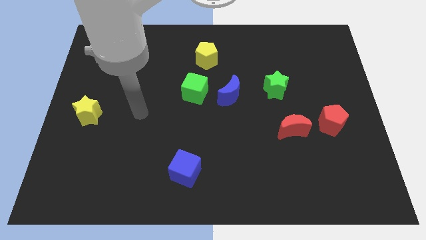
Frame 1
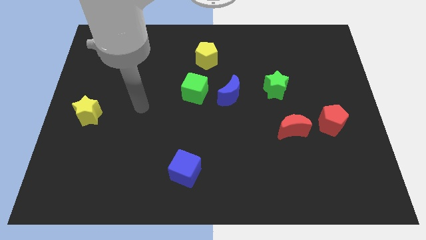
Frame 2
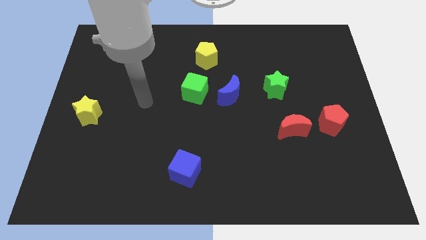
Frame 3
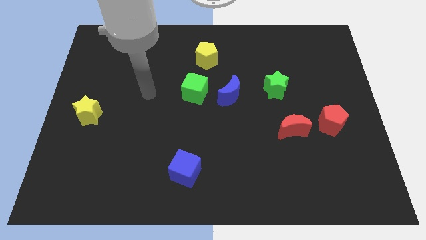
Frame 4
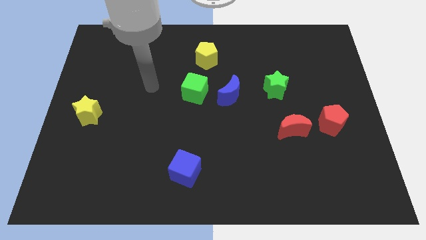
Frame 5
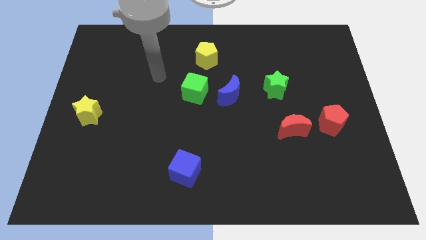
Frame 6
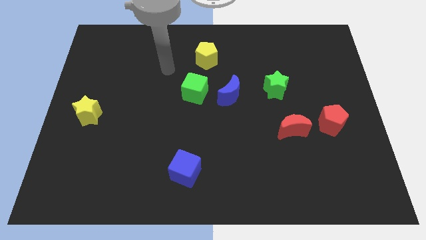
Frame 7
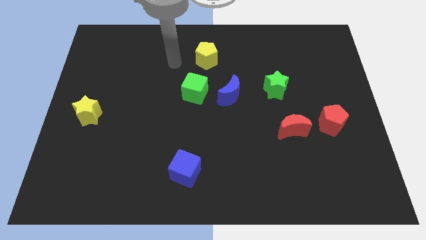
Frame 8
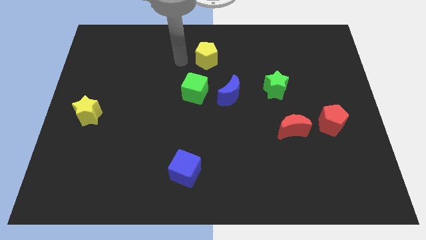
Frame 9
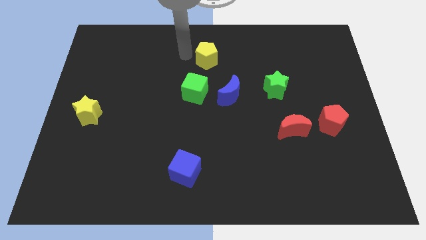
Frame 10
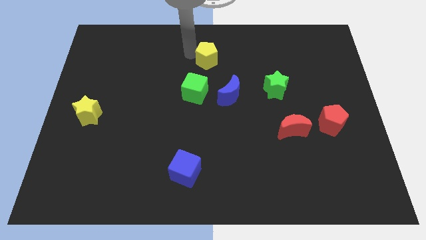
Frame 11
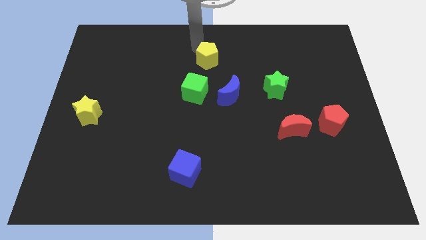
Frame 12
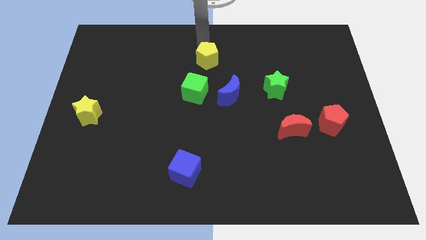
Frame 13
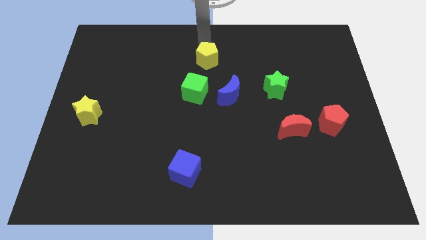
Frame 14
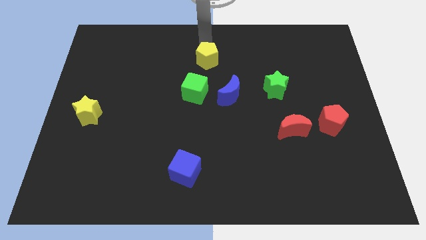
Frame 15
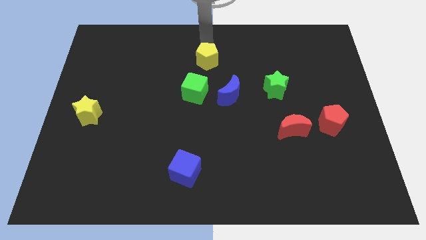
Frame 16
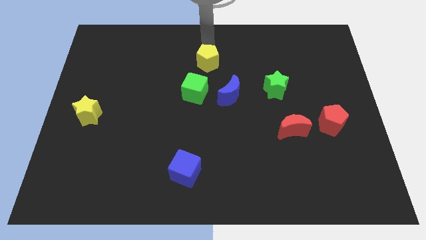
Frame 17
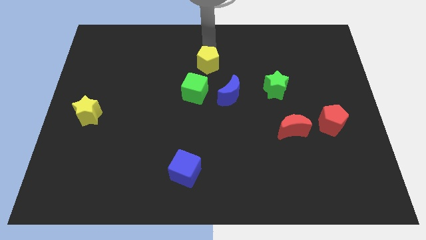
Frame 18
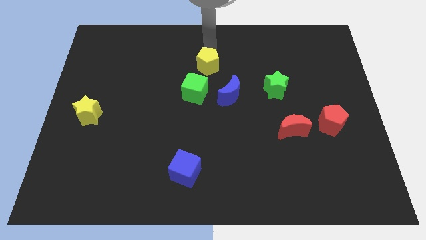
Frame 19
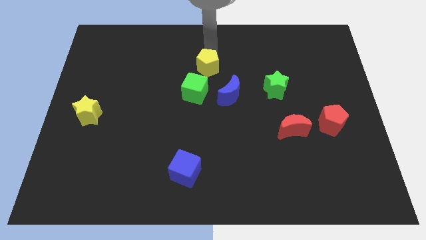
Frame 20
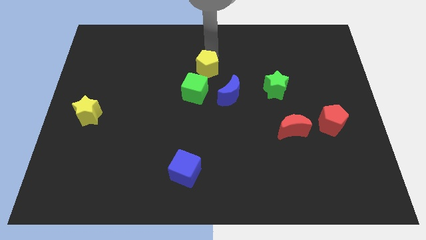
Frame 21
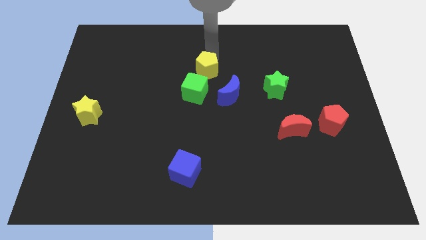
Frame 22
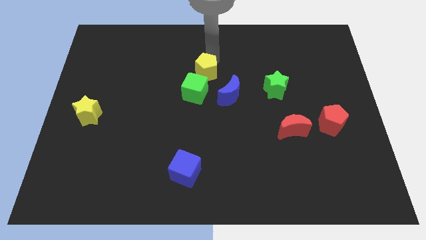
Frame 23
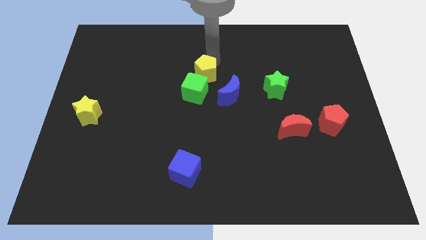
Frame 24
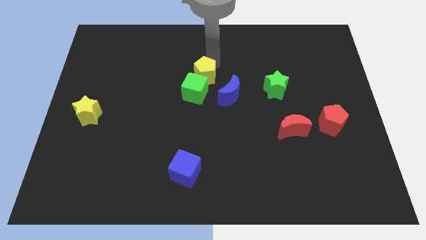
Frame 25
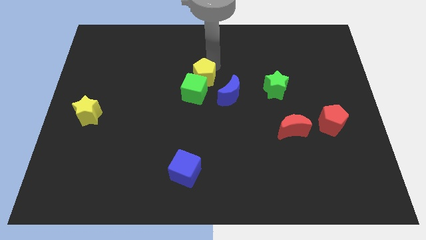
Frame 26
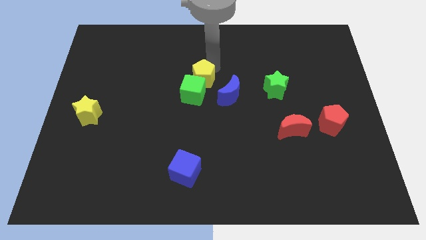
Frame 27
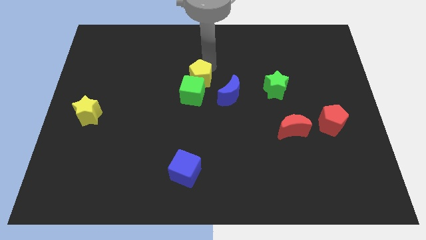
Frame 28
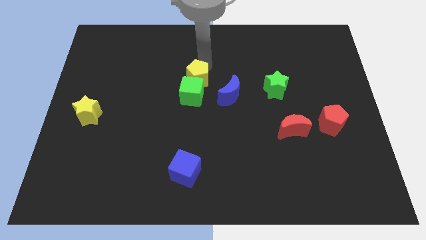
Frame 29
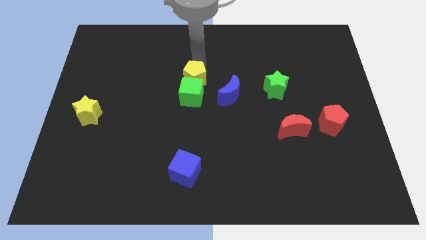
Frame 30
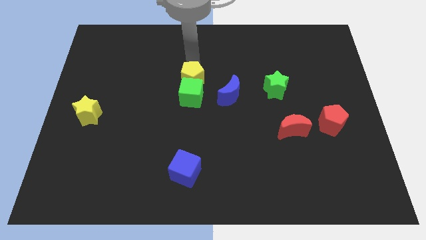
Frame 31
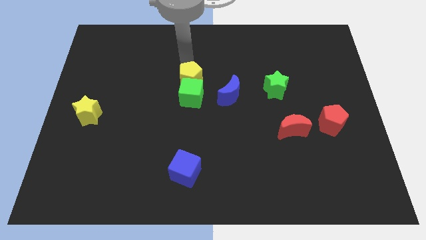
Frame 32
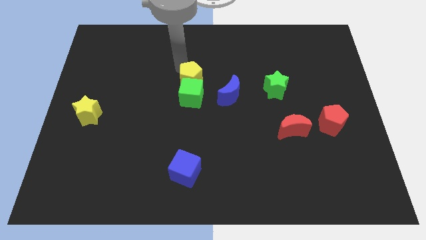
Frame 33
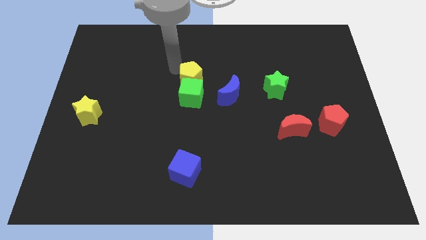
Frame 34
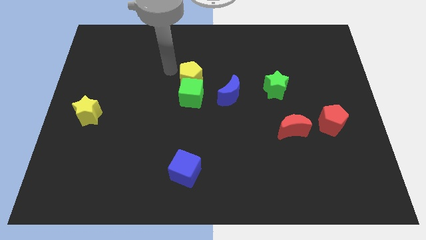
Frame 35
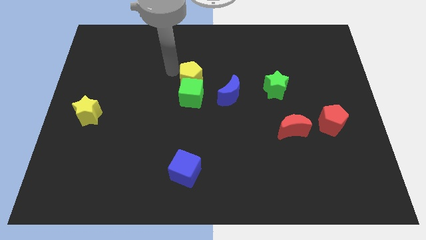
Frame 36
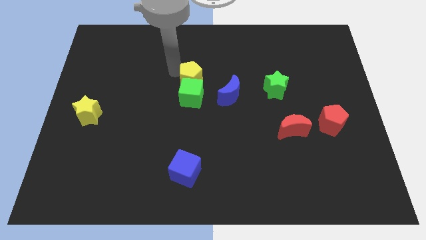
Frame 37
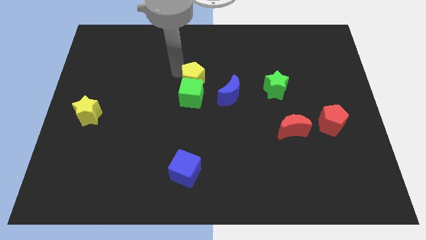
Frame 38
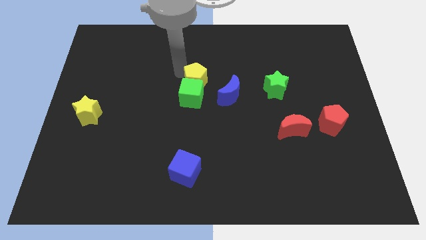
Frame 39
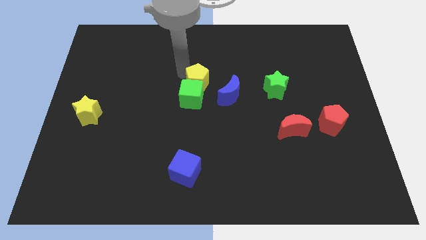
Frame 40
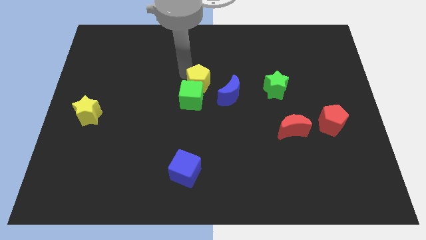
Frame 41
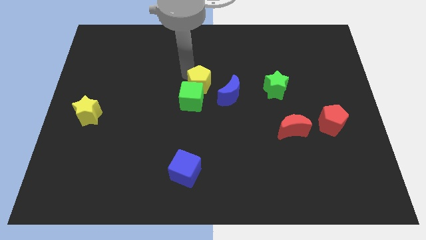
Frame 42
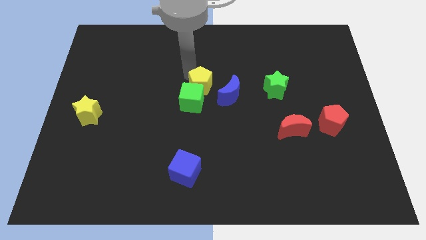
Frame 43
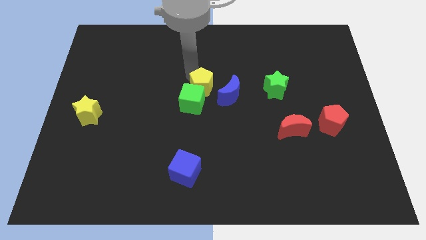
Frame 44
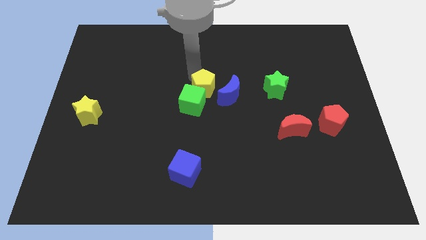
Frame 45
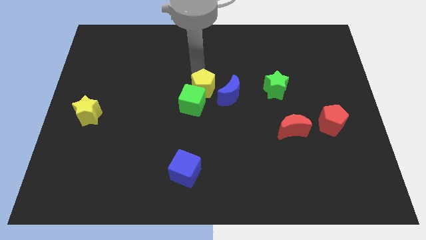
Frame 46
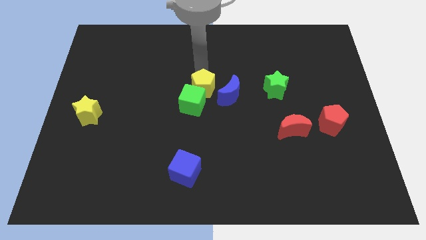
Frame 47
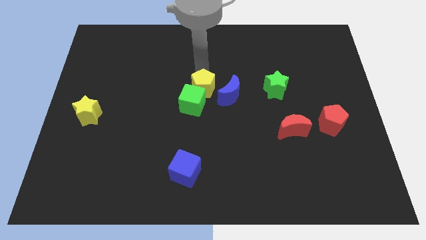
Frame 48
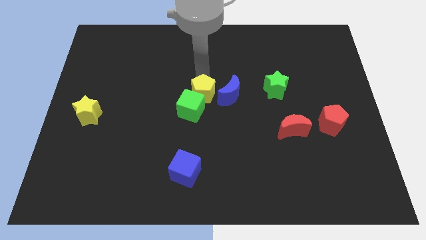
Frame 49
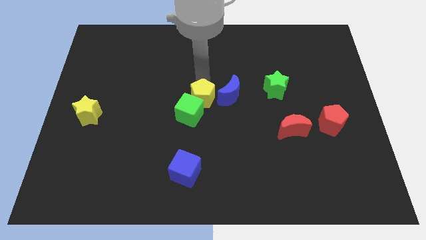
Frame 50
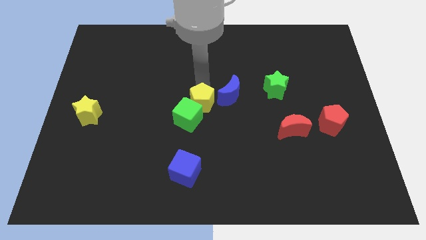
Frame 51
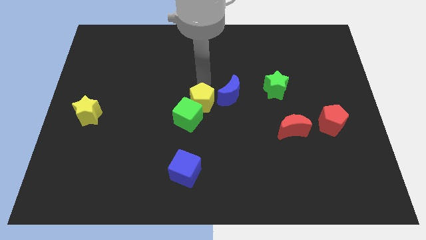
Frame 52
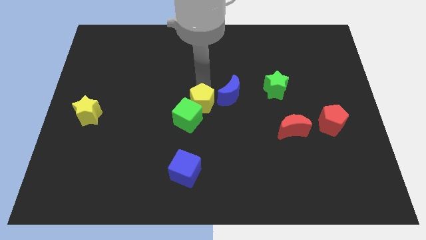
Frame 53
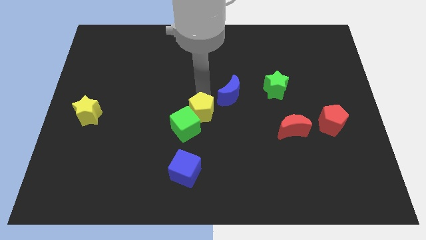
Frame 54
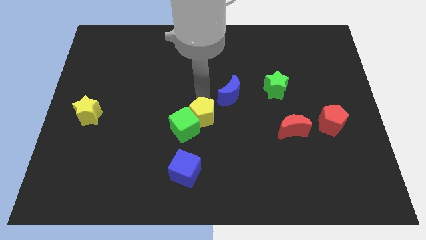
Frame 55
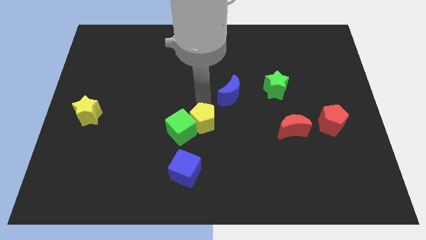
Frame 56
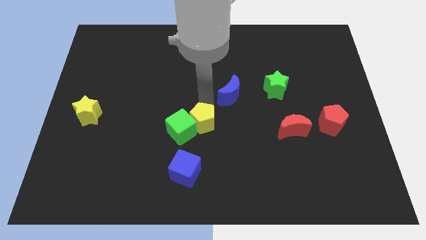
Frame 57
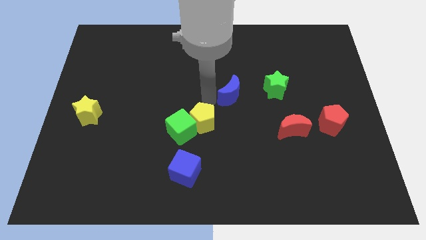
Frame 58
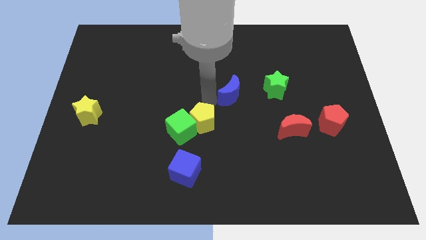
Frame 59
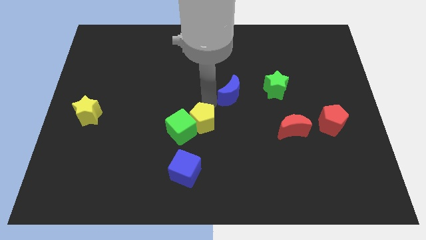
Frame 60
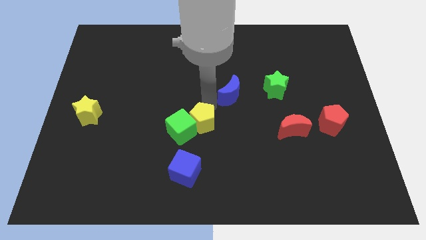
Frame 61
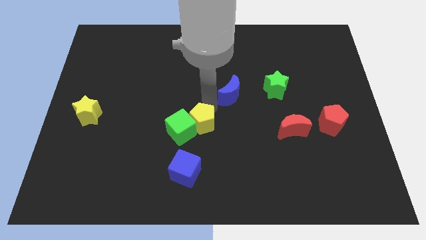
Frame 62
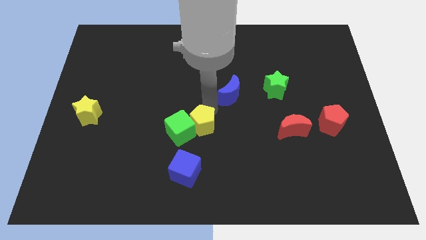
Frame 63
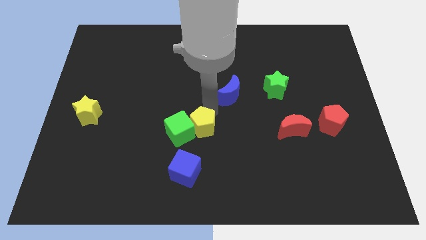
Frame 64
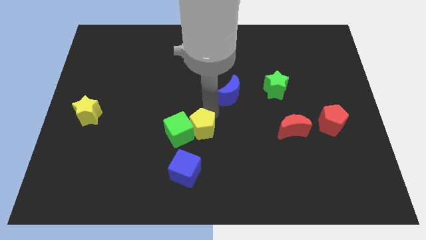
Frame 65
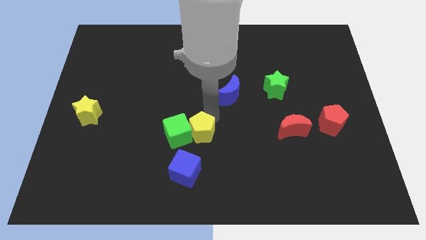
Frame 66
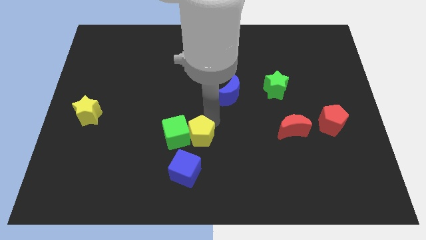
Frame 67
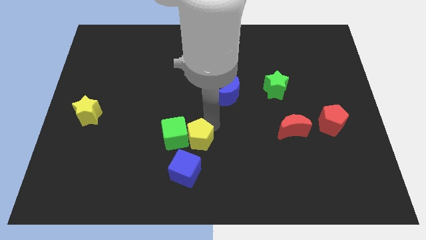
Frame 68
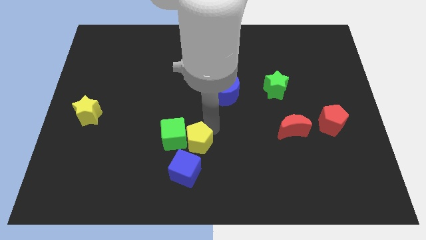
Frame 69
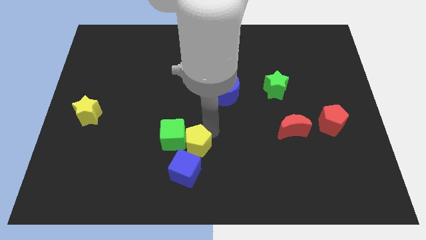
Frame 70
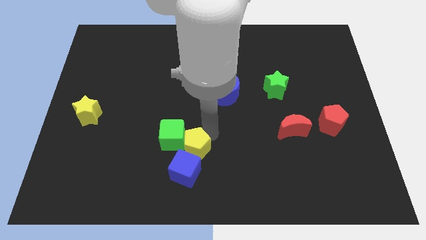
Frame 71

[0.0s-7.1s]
slide the yellow pentagon to the blue cube

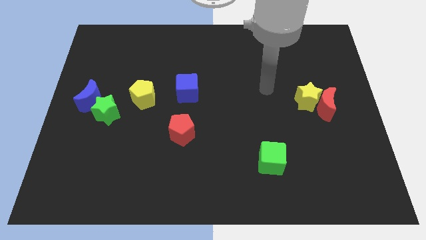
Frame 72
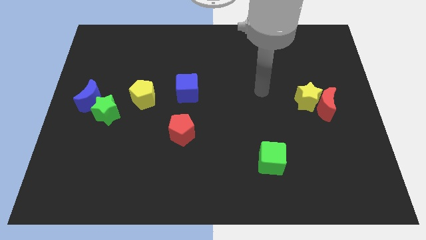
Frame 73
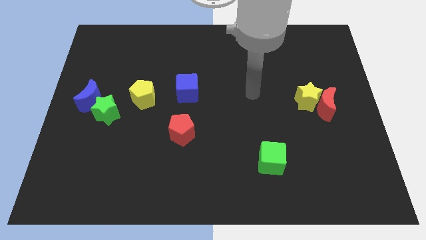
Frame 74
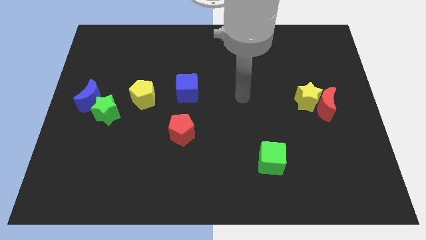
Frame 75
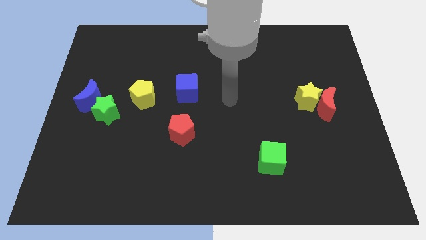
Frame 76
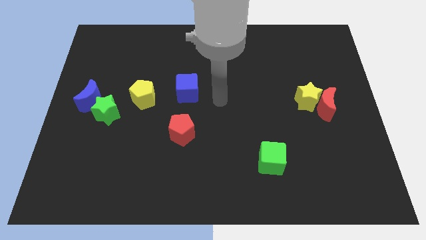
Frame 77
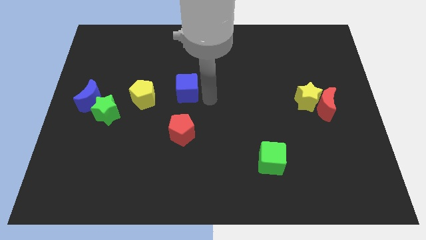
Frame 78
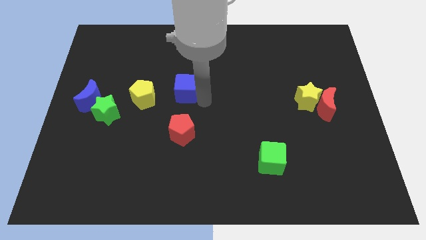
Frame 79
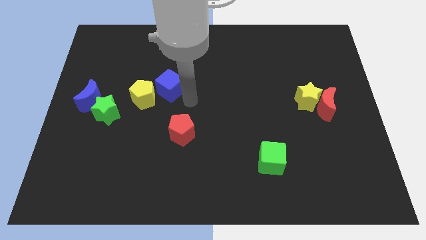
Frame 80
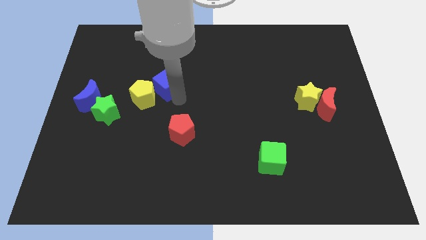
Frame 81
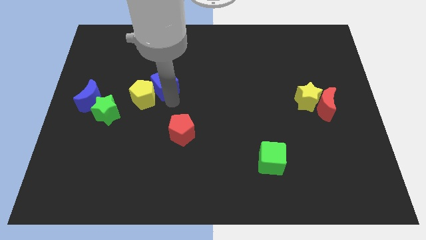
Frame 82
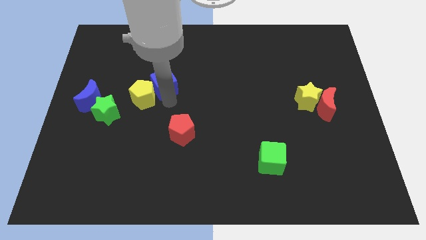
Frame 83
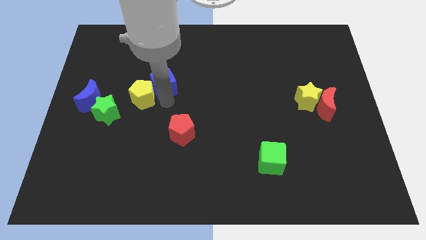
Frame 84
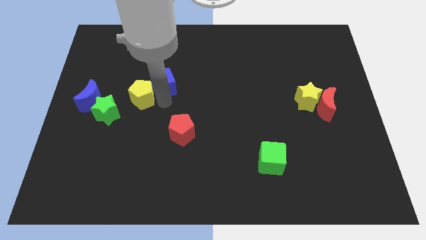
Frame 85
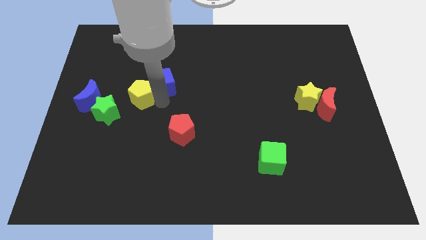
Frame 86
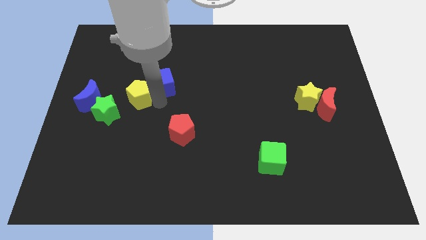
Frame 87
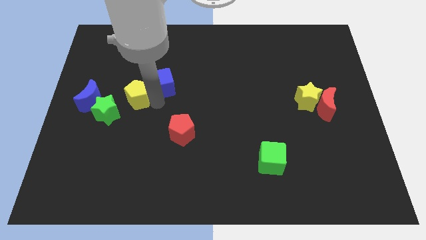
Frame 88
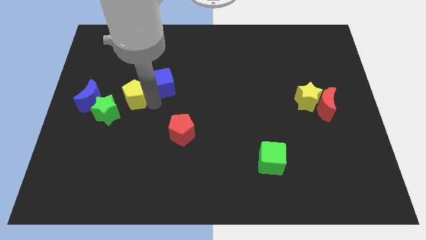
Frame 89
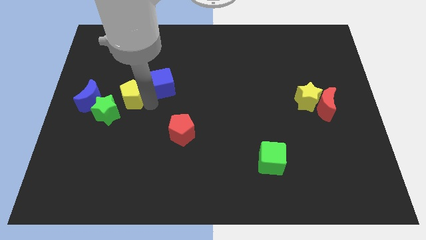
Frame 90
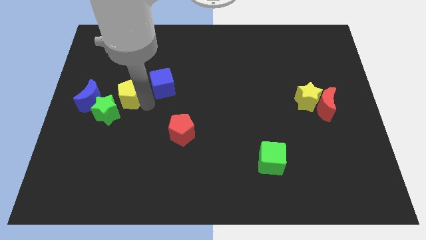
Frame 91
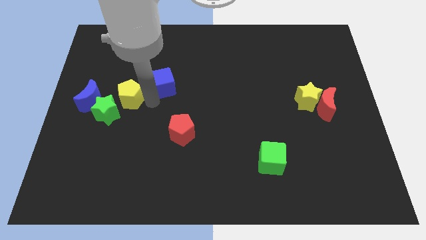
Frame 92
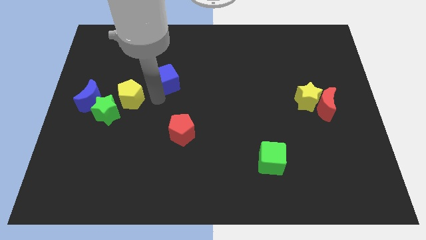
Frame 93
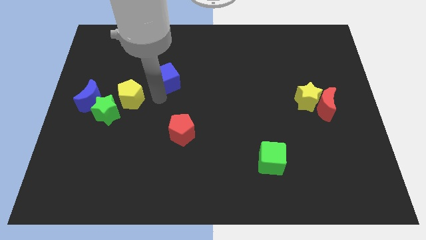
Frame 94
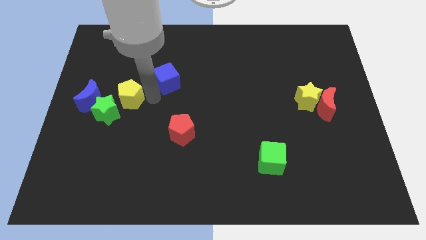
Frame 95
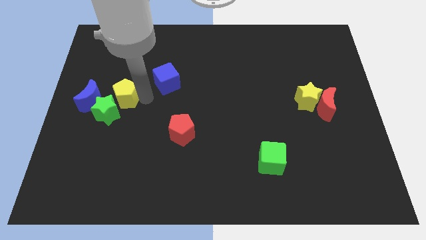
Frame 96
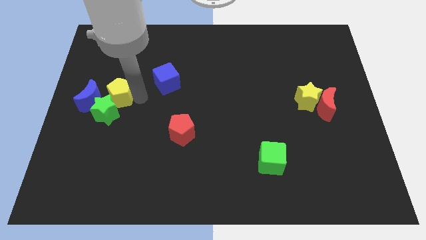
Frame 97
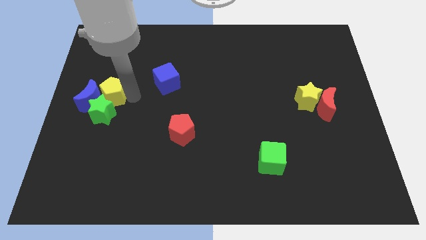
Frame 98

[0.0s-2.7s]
move the yellow pentagon towards the blue moon
